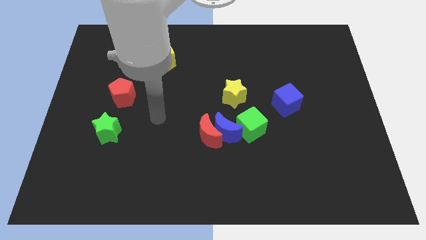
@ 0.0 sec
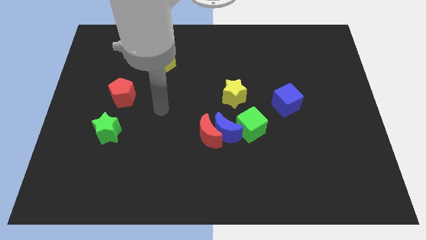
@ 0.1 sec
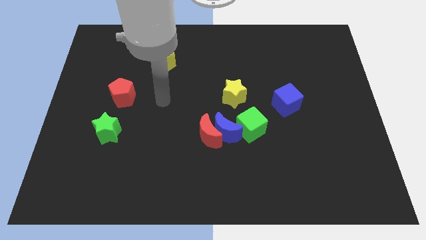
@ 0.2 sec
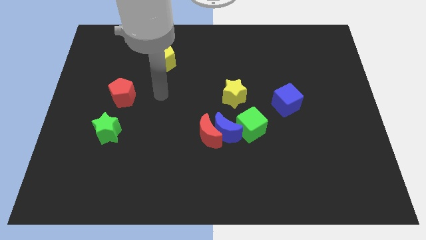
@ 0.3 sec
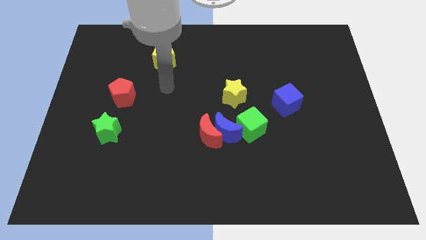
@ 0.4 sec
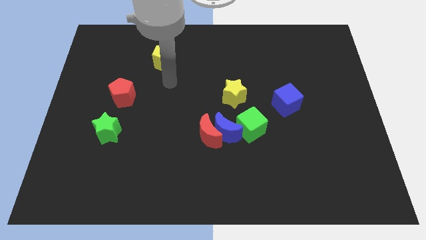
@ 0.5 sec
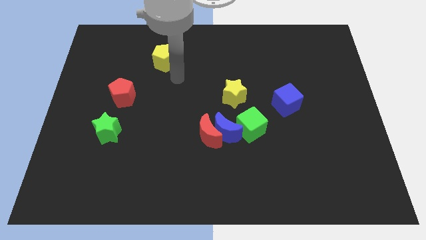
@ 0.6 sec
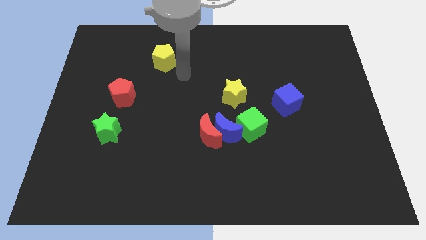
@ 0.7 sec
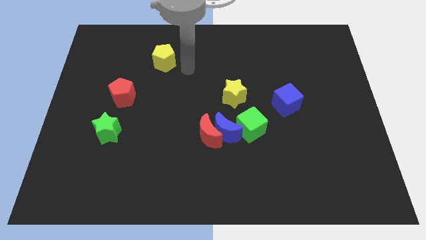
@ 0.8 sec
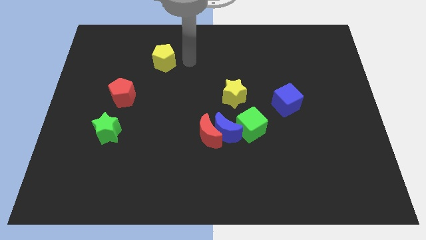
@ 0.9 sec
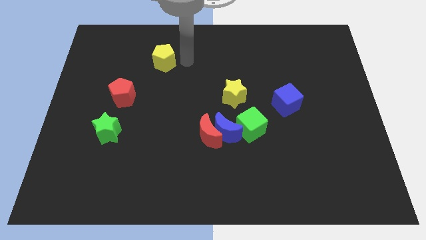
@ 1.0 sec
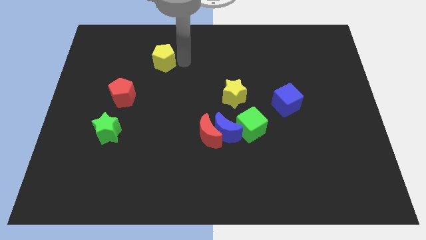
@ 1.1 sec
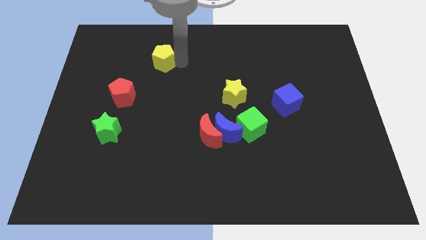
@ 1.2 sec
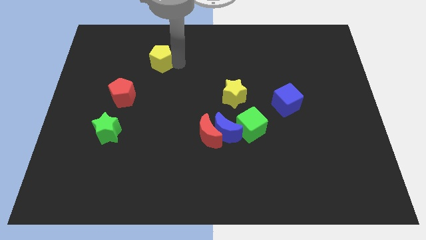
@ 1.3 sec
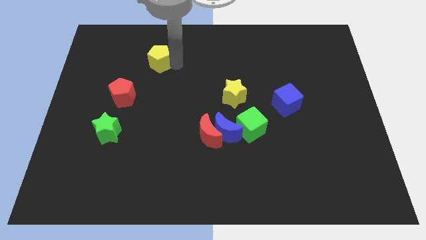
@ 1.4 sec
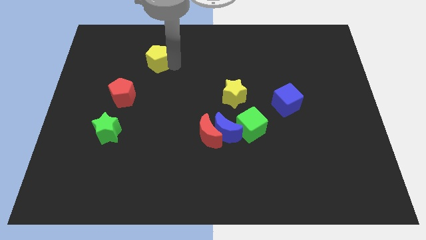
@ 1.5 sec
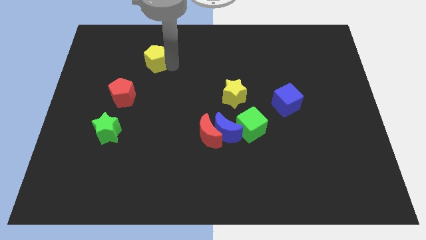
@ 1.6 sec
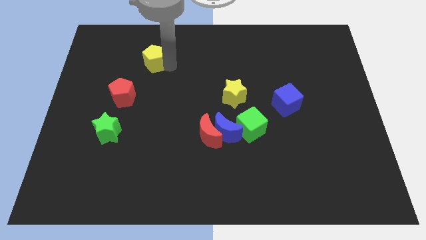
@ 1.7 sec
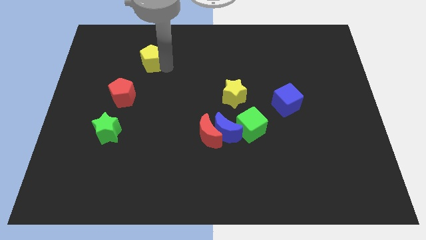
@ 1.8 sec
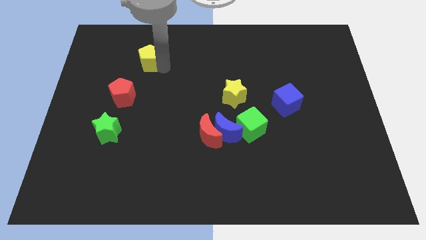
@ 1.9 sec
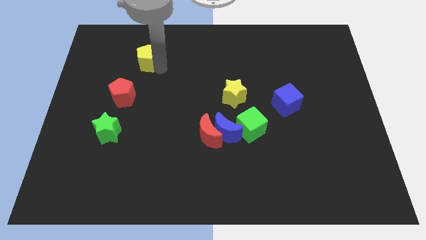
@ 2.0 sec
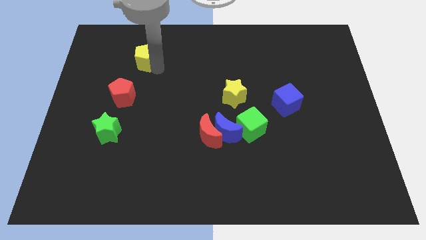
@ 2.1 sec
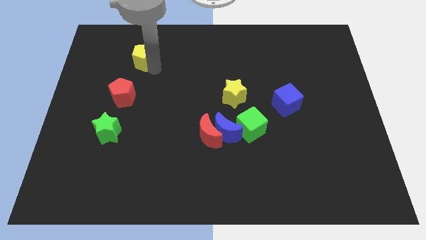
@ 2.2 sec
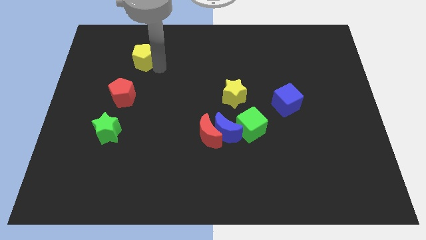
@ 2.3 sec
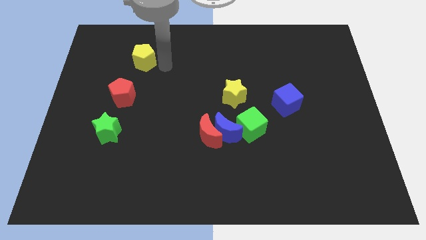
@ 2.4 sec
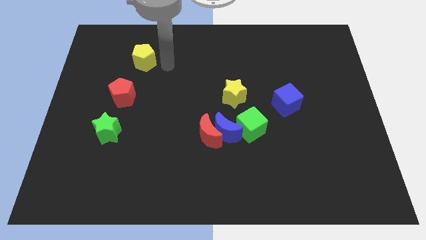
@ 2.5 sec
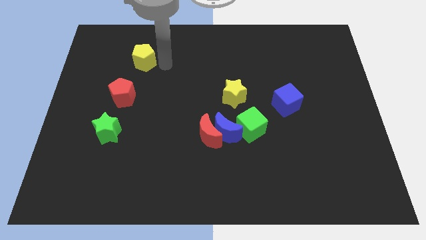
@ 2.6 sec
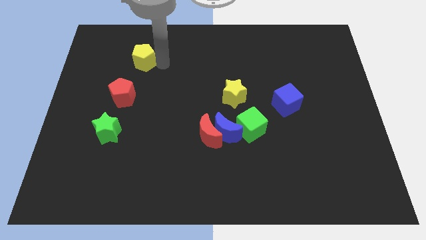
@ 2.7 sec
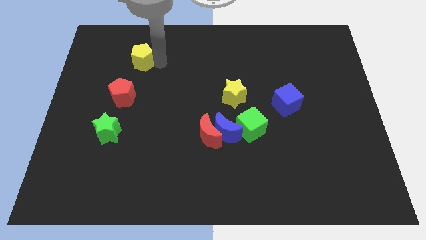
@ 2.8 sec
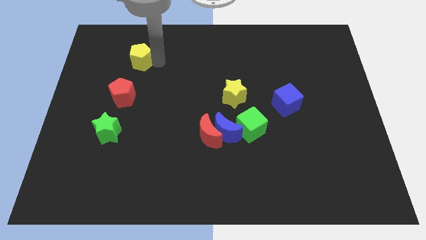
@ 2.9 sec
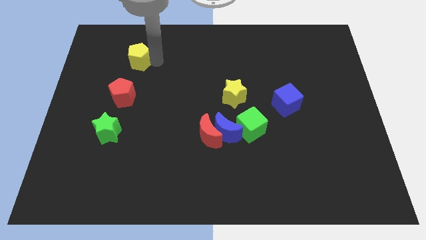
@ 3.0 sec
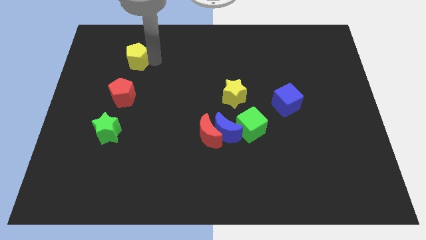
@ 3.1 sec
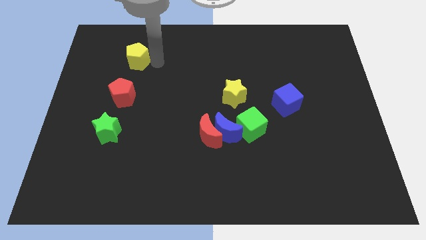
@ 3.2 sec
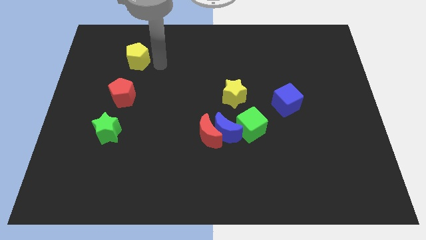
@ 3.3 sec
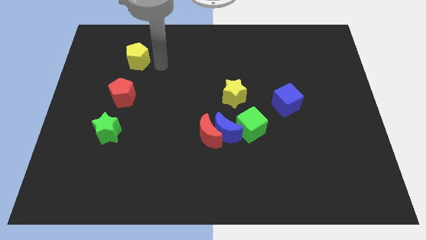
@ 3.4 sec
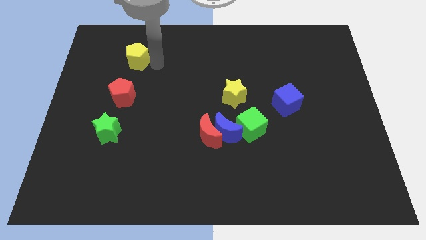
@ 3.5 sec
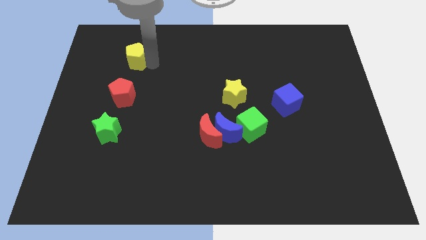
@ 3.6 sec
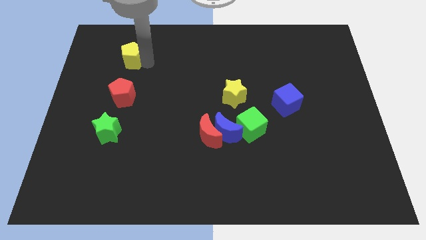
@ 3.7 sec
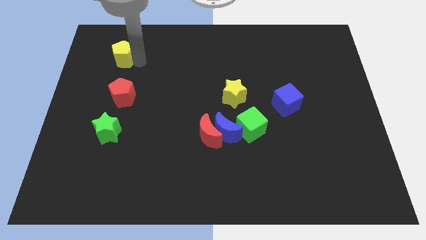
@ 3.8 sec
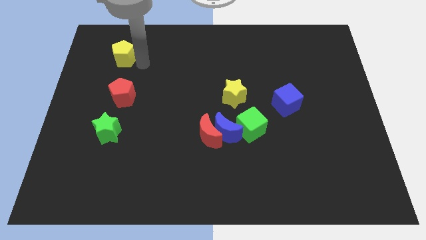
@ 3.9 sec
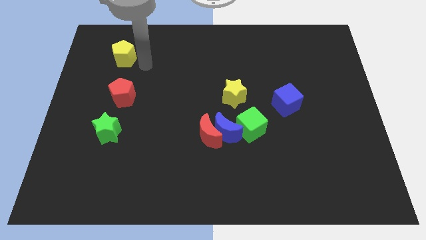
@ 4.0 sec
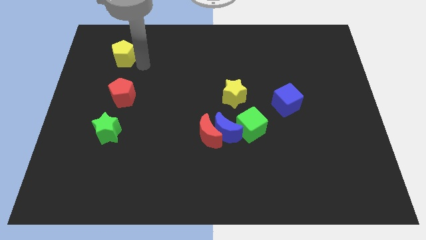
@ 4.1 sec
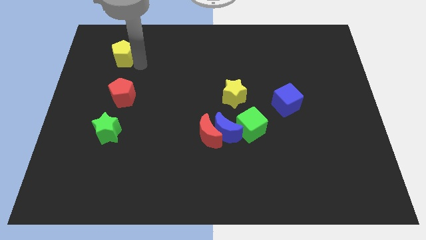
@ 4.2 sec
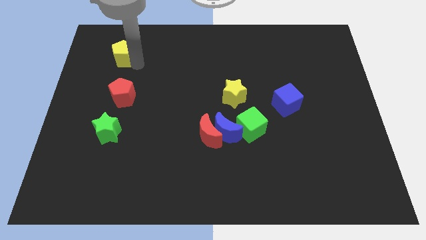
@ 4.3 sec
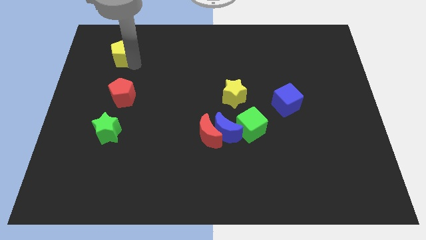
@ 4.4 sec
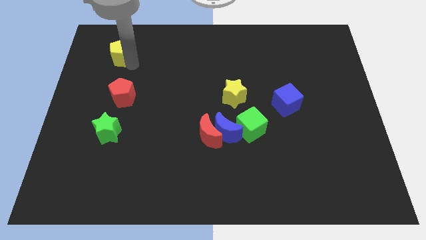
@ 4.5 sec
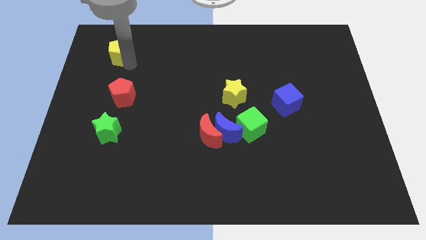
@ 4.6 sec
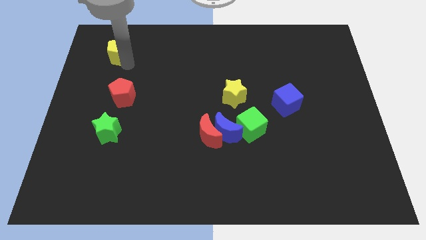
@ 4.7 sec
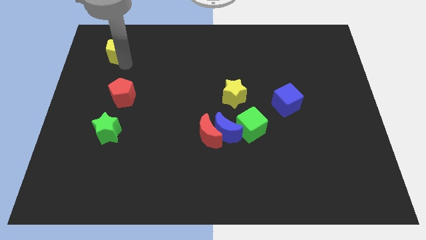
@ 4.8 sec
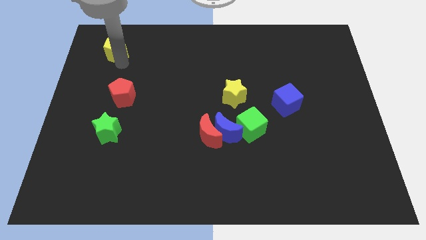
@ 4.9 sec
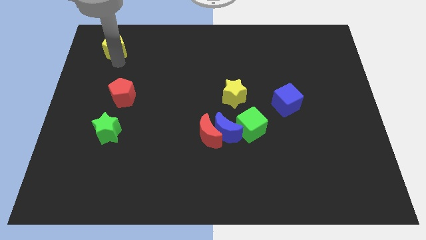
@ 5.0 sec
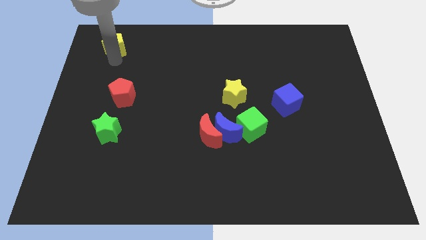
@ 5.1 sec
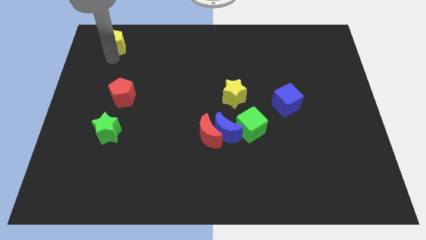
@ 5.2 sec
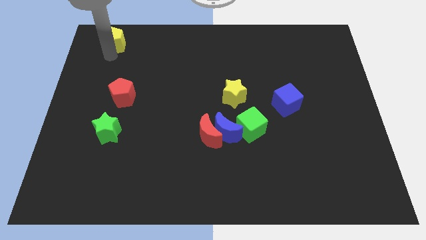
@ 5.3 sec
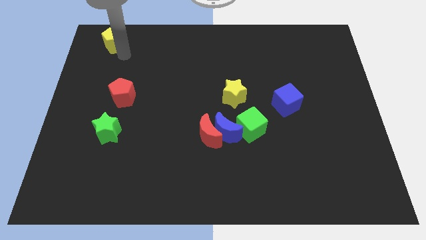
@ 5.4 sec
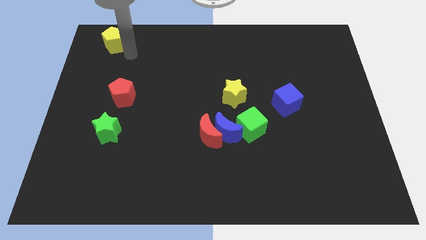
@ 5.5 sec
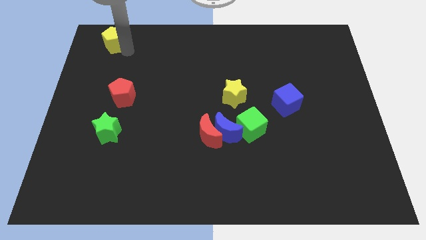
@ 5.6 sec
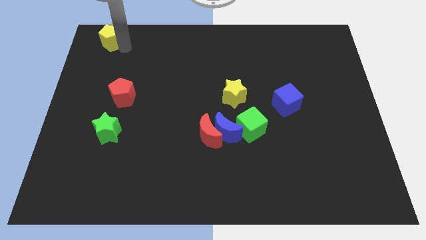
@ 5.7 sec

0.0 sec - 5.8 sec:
move the yellow pentagon to the top left of the board
